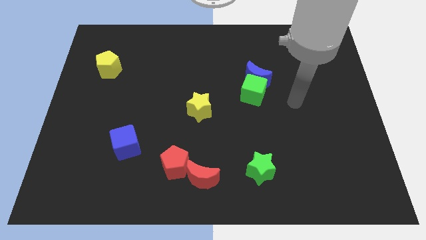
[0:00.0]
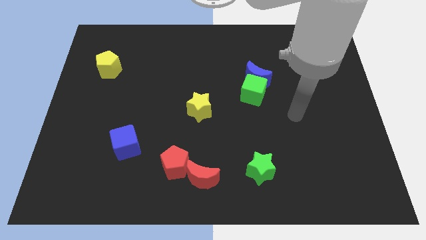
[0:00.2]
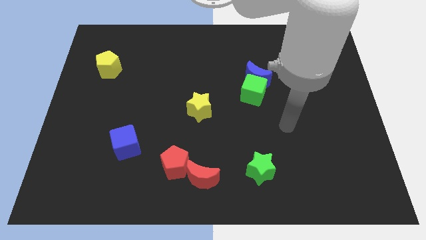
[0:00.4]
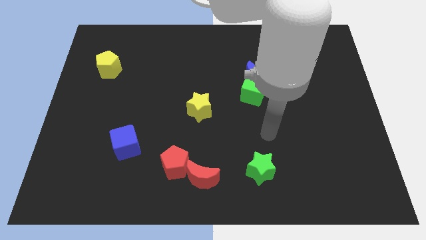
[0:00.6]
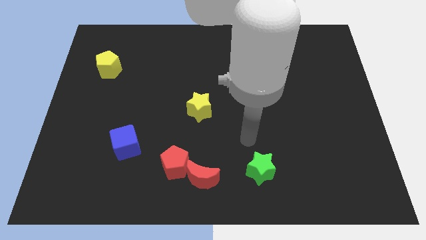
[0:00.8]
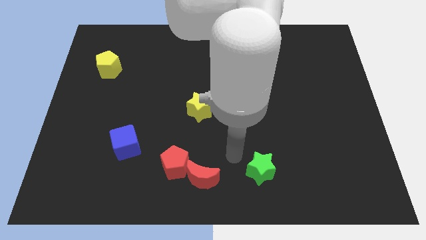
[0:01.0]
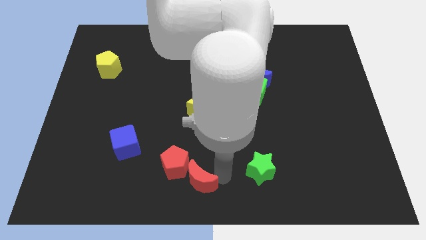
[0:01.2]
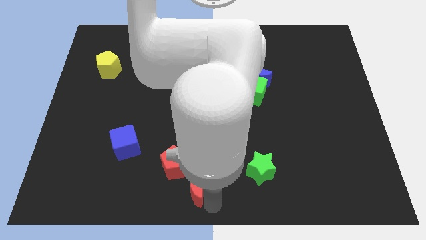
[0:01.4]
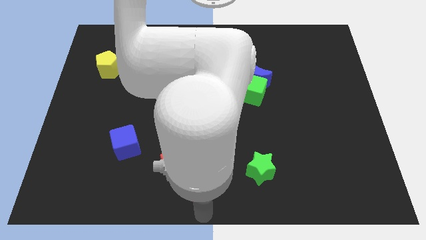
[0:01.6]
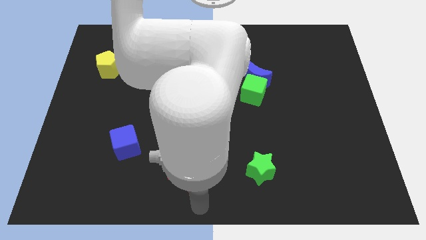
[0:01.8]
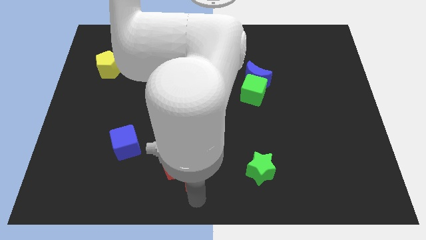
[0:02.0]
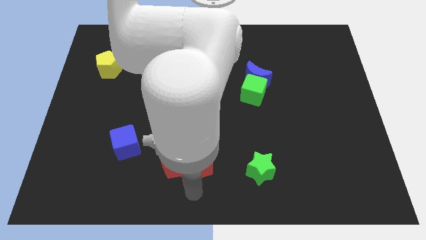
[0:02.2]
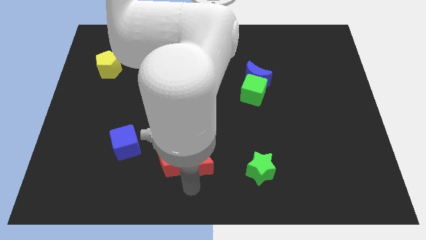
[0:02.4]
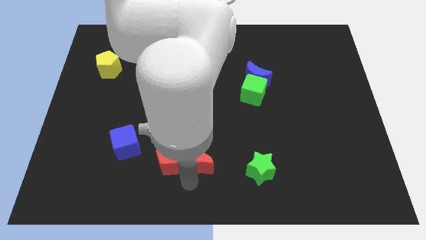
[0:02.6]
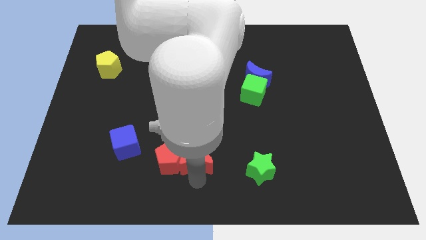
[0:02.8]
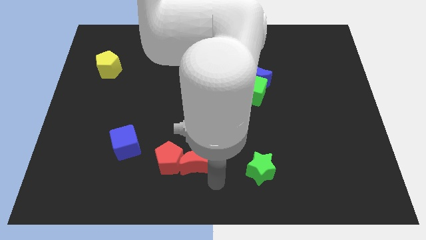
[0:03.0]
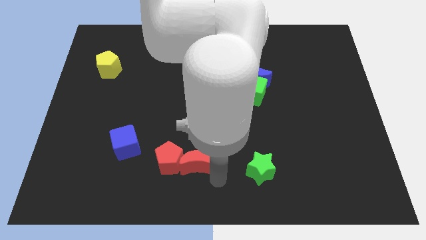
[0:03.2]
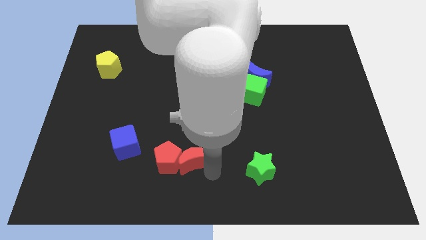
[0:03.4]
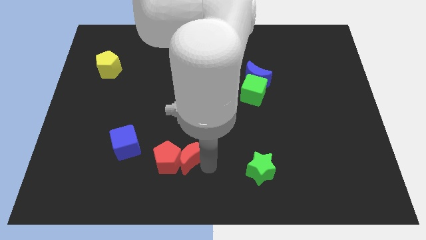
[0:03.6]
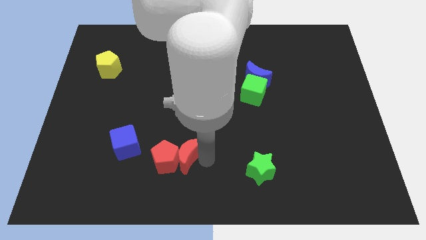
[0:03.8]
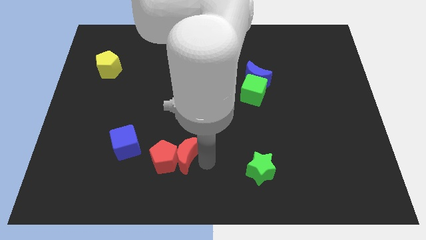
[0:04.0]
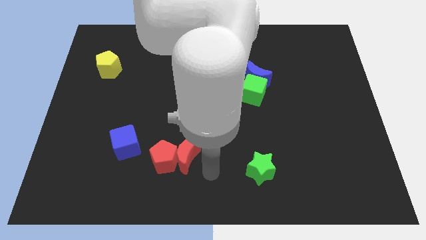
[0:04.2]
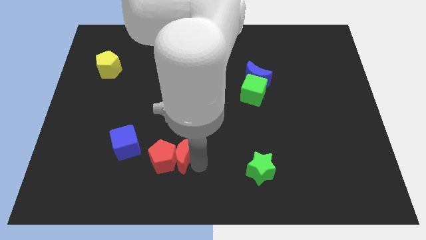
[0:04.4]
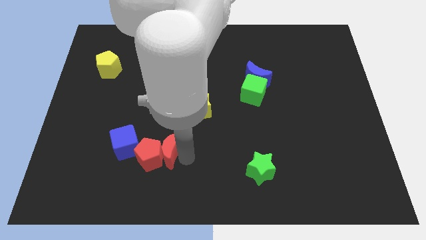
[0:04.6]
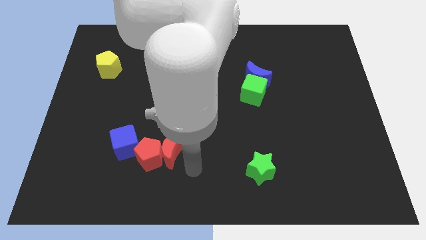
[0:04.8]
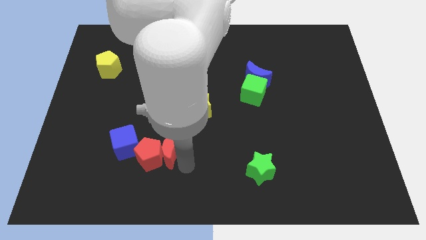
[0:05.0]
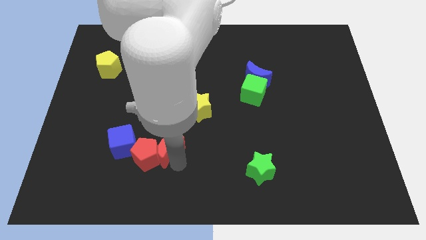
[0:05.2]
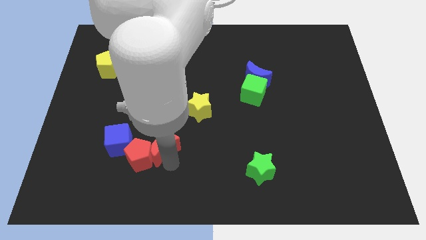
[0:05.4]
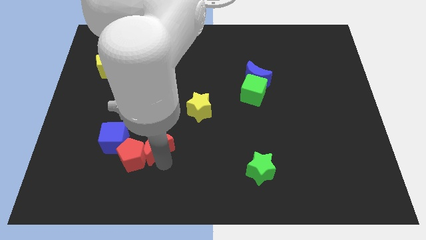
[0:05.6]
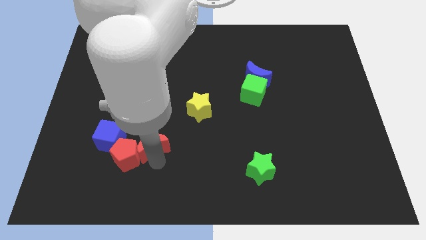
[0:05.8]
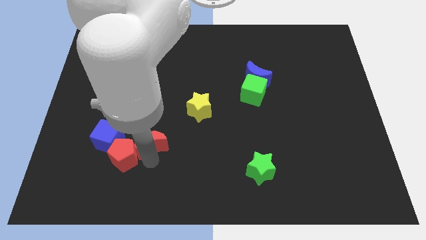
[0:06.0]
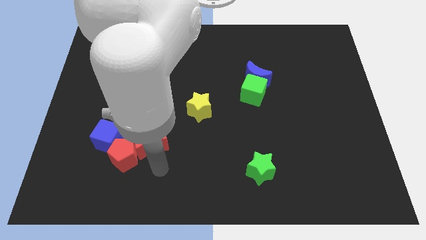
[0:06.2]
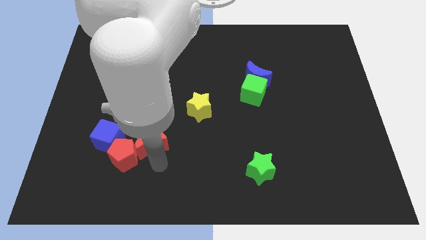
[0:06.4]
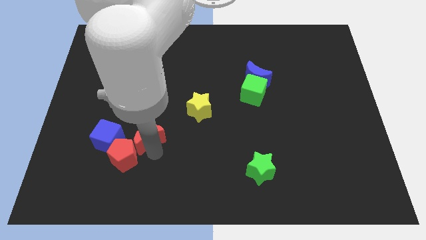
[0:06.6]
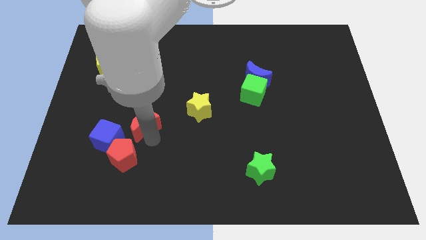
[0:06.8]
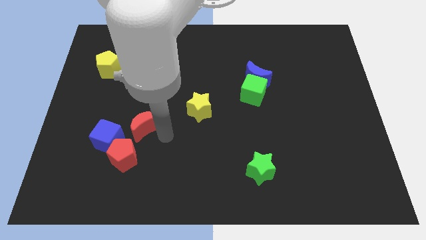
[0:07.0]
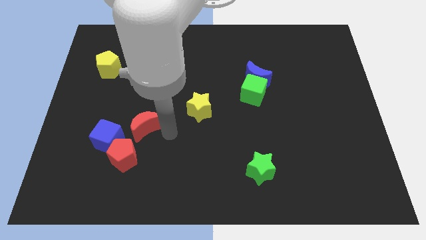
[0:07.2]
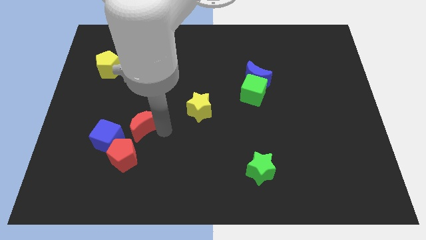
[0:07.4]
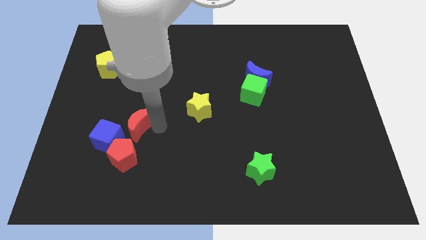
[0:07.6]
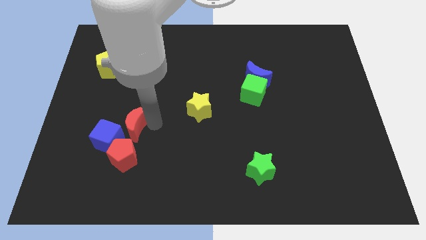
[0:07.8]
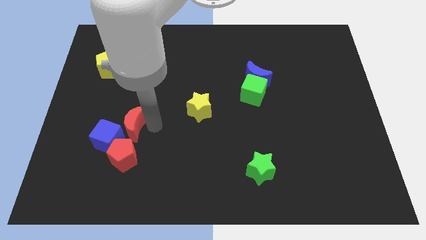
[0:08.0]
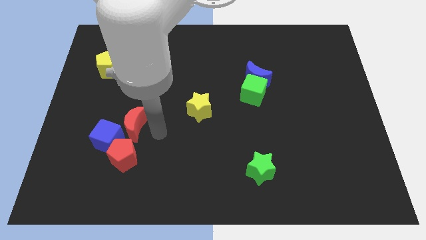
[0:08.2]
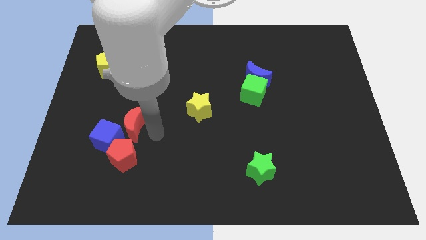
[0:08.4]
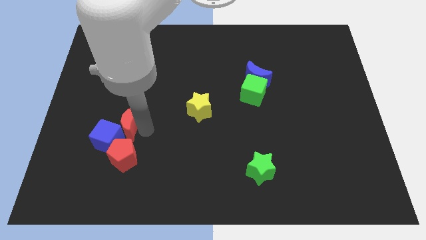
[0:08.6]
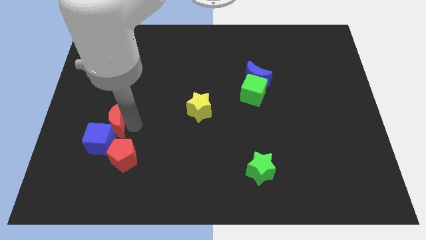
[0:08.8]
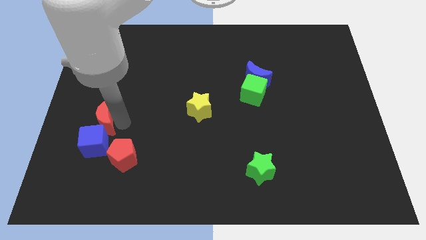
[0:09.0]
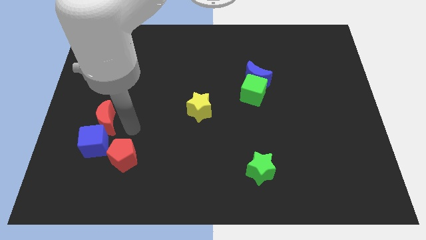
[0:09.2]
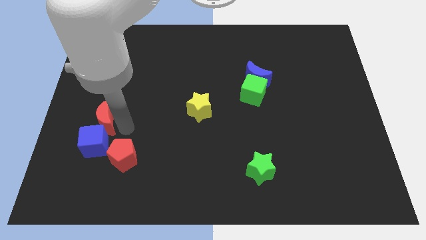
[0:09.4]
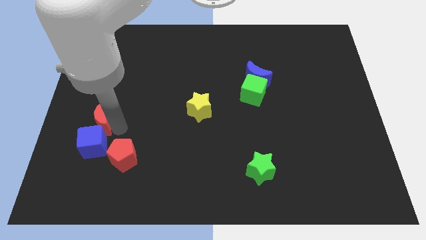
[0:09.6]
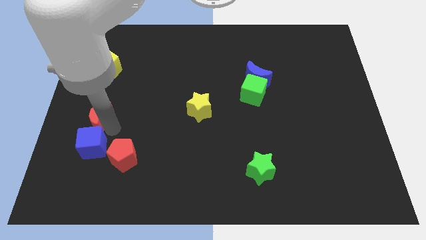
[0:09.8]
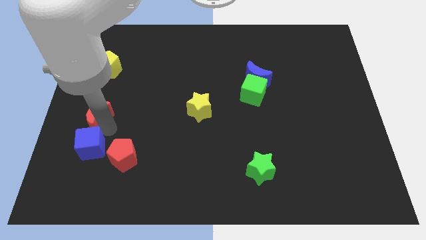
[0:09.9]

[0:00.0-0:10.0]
push the red moon to the left side

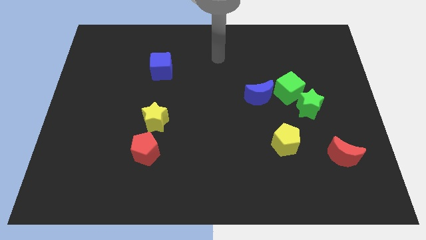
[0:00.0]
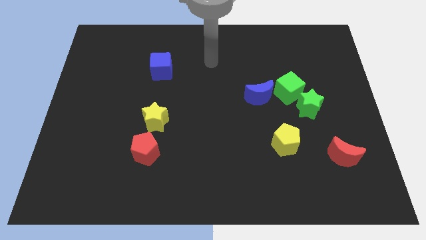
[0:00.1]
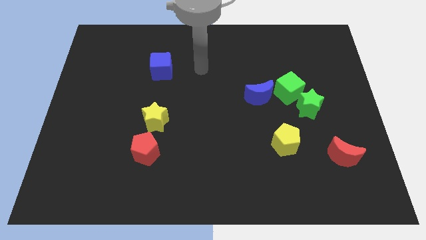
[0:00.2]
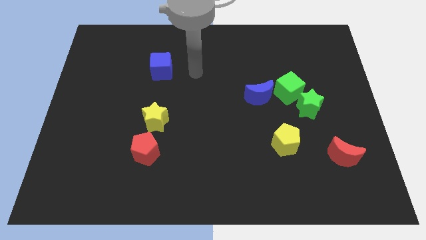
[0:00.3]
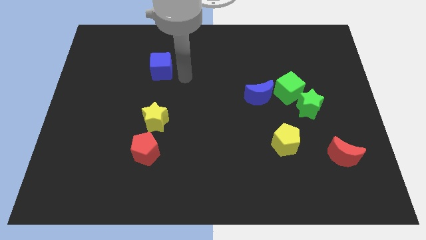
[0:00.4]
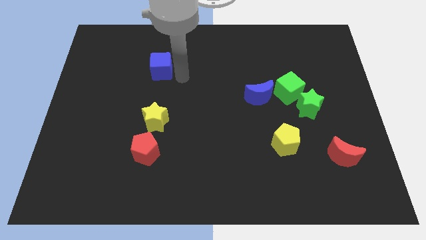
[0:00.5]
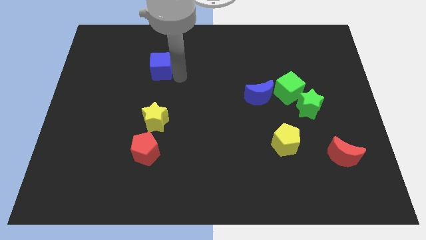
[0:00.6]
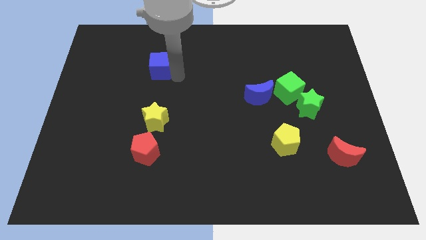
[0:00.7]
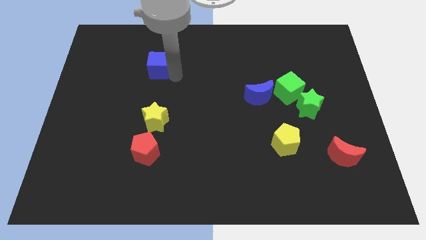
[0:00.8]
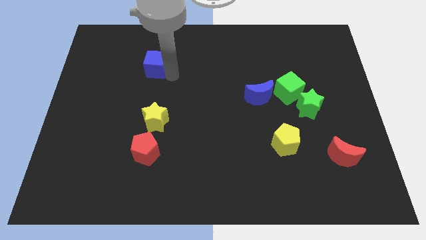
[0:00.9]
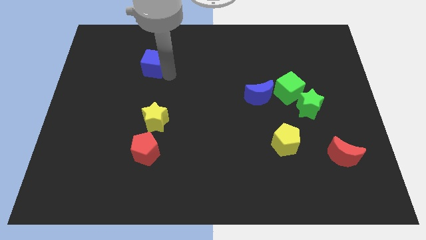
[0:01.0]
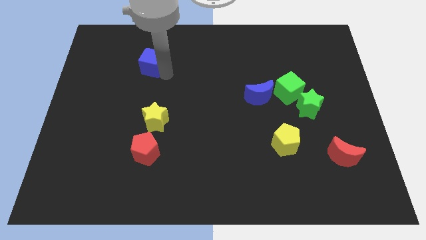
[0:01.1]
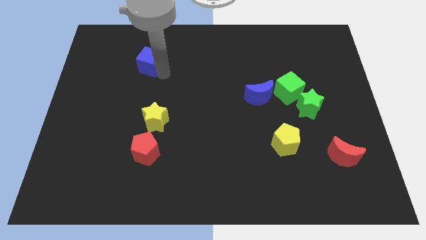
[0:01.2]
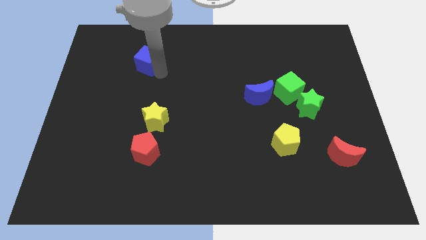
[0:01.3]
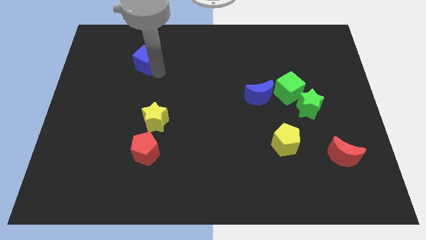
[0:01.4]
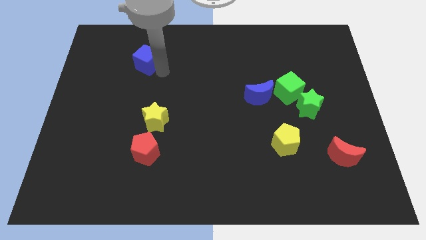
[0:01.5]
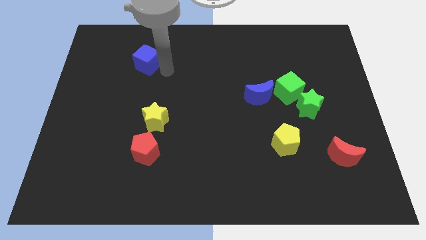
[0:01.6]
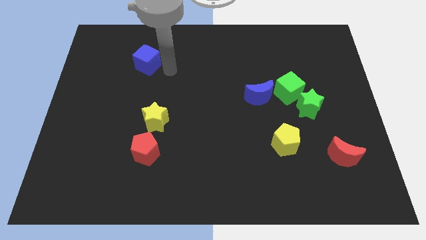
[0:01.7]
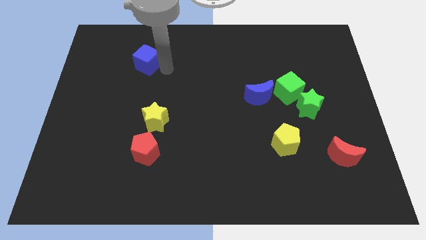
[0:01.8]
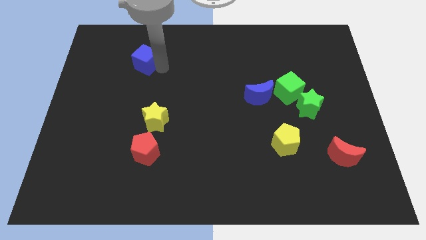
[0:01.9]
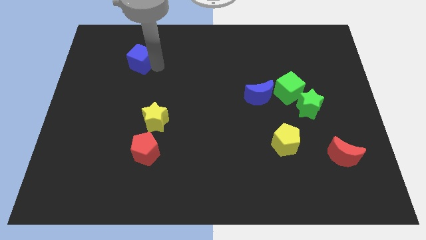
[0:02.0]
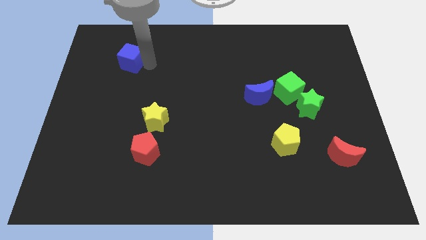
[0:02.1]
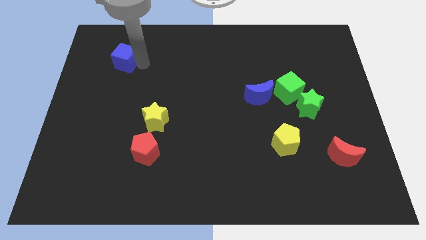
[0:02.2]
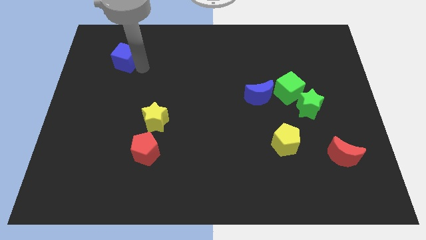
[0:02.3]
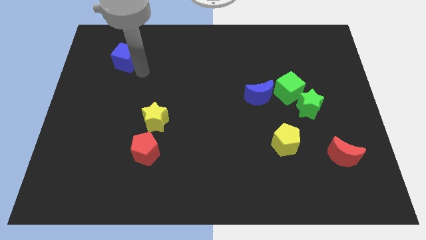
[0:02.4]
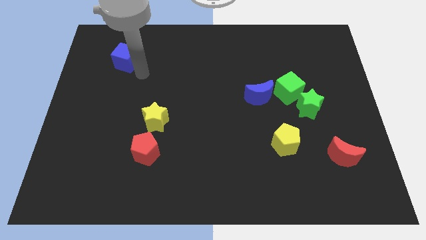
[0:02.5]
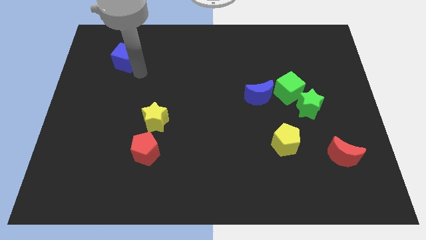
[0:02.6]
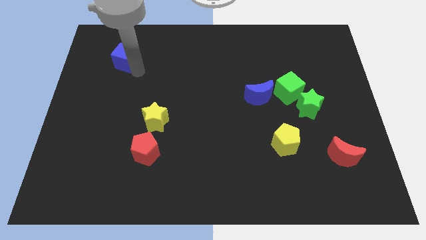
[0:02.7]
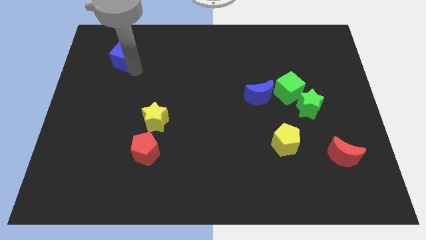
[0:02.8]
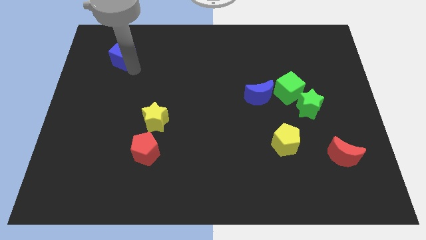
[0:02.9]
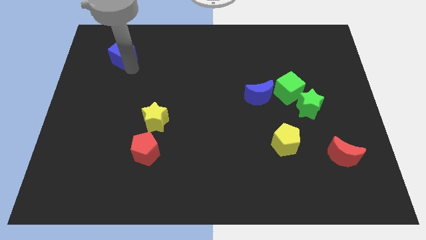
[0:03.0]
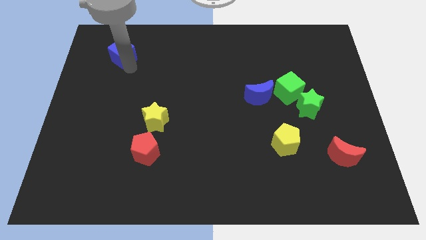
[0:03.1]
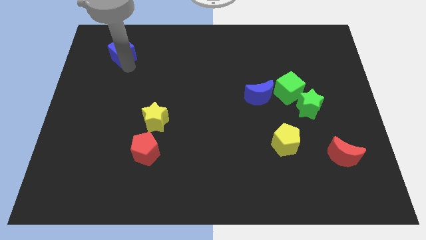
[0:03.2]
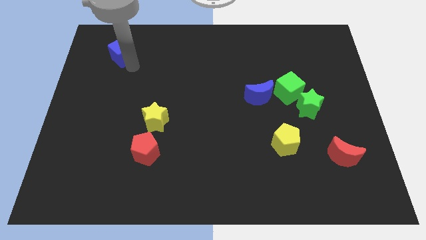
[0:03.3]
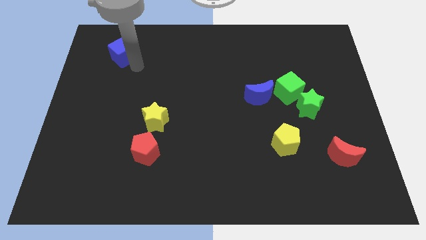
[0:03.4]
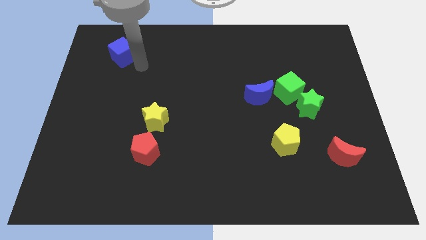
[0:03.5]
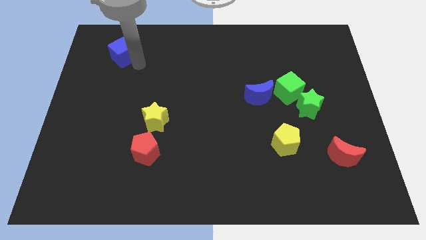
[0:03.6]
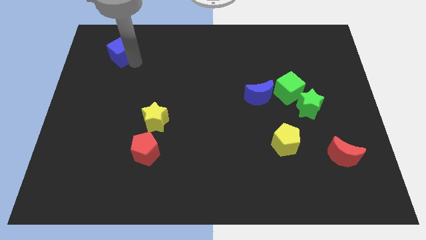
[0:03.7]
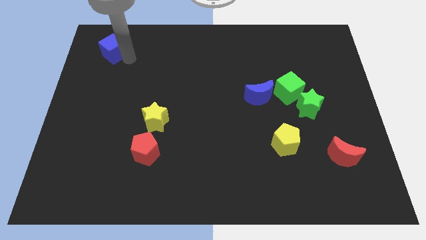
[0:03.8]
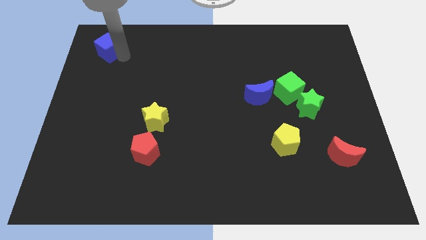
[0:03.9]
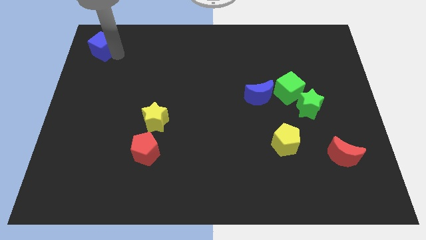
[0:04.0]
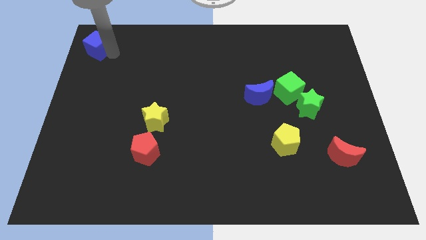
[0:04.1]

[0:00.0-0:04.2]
slide the blue cube to the upper left corner
